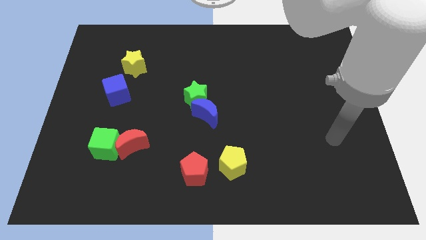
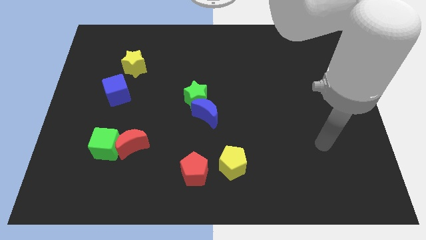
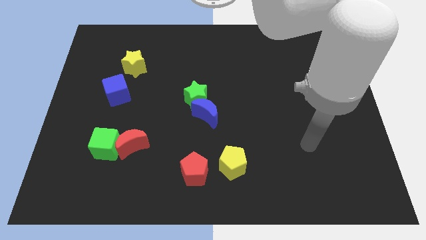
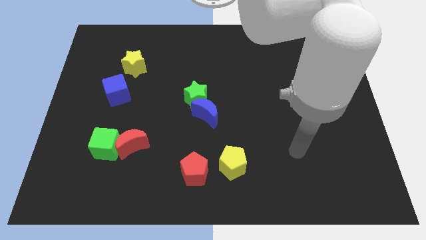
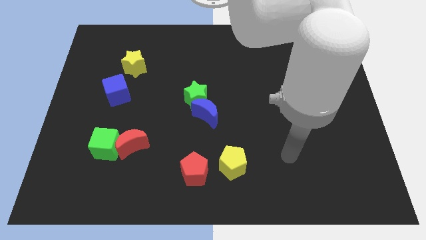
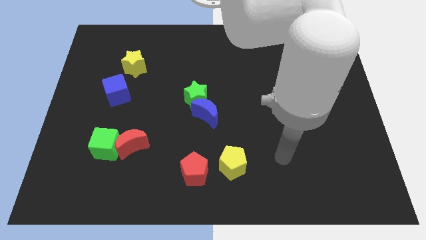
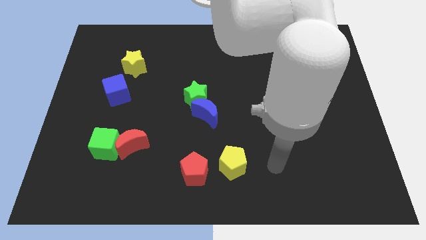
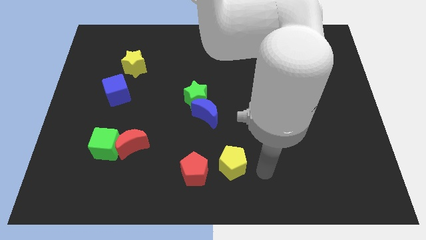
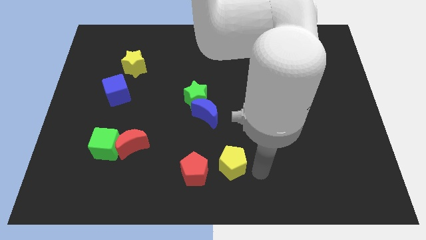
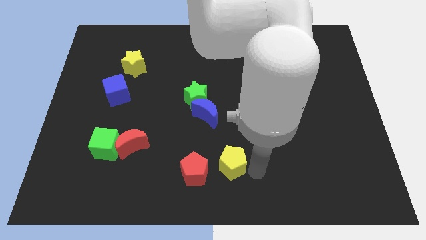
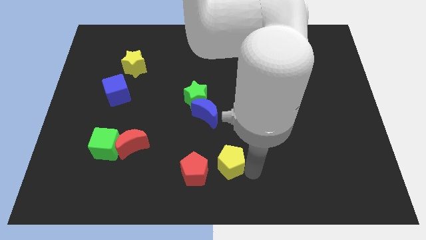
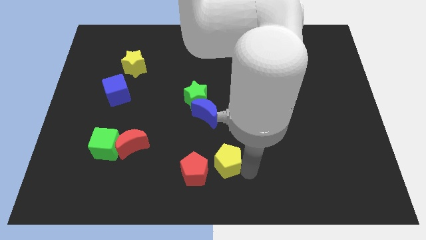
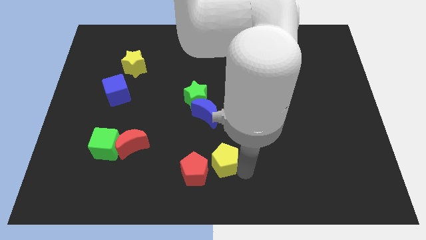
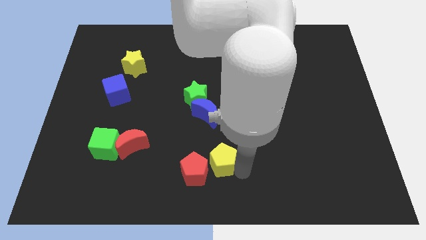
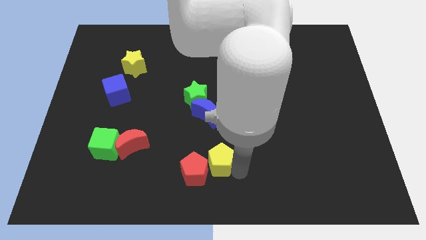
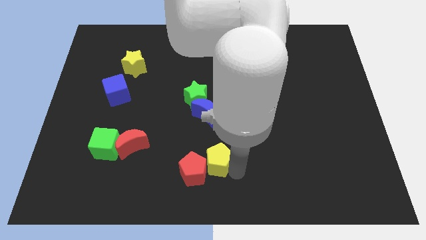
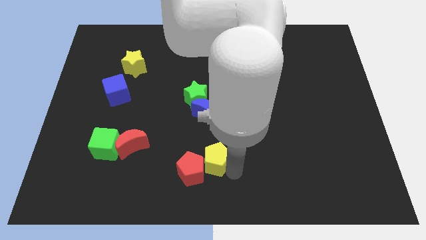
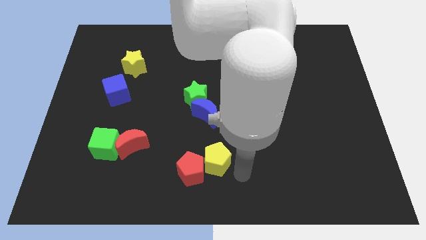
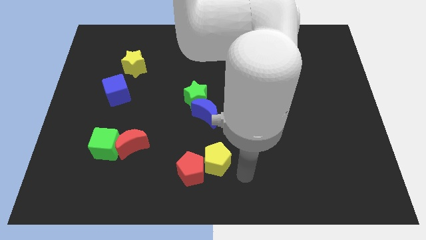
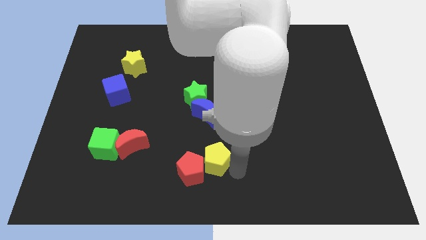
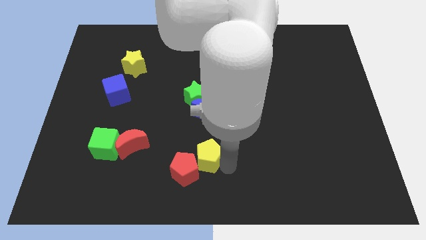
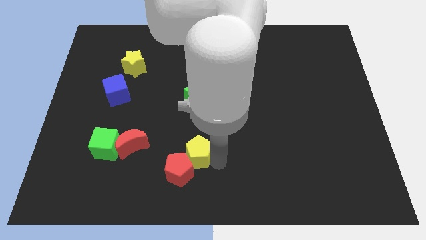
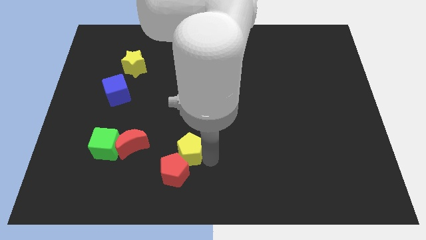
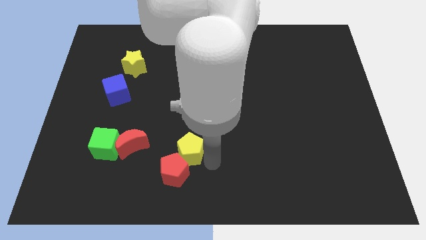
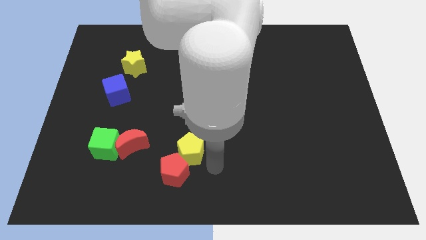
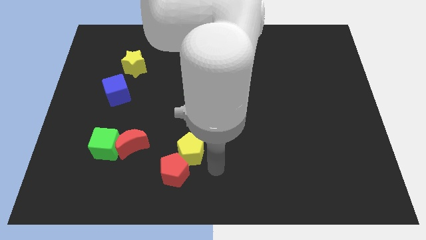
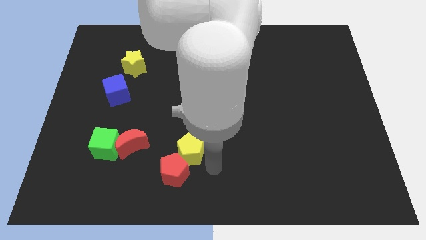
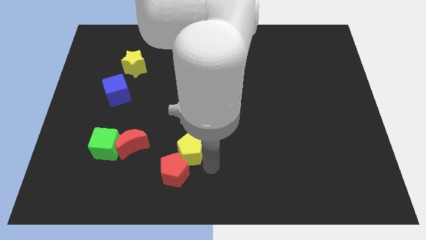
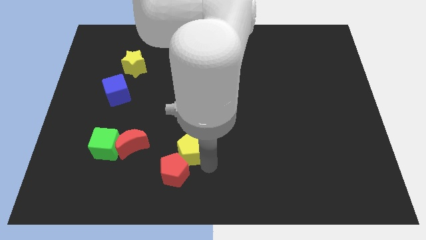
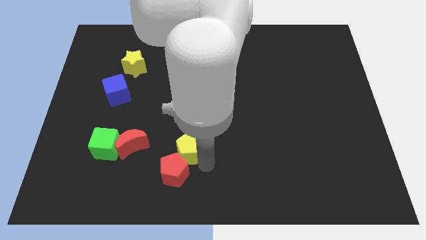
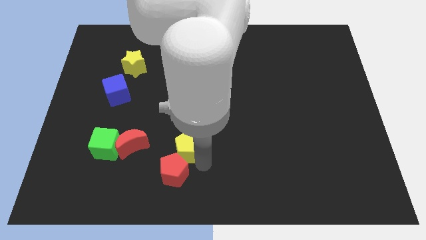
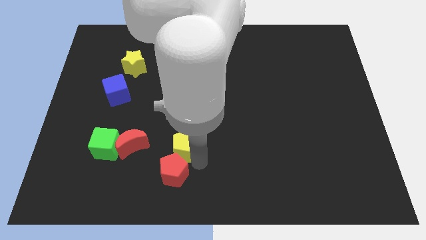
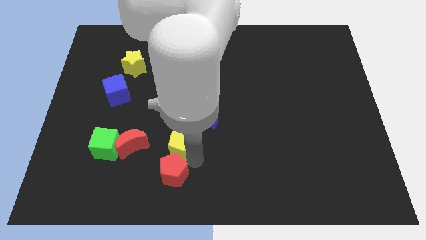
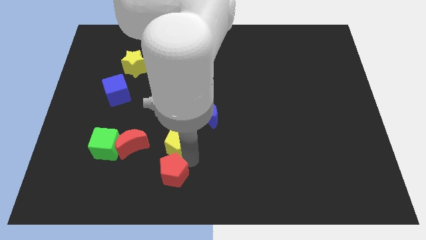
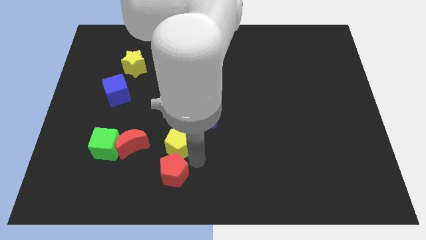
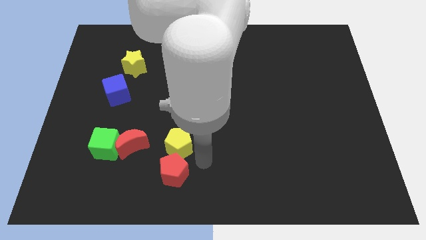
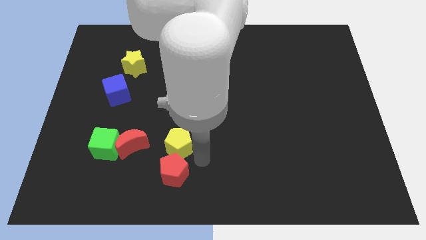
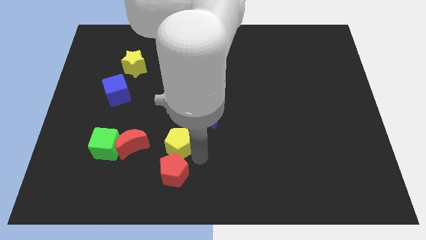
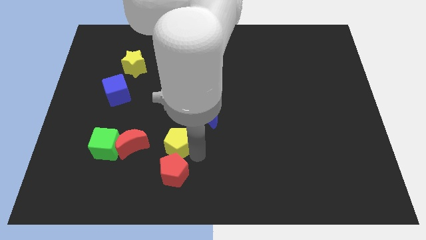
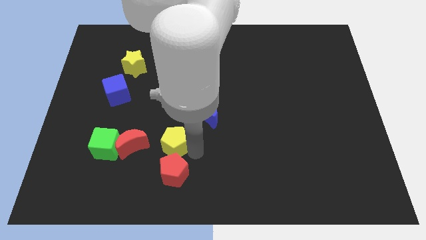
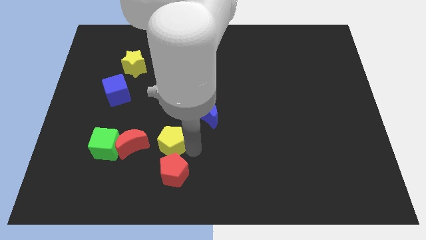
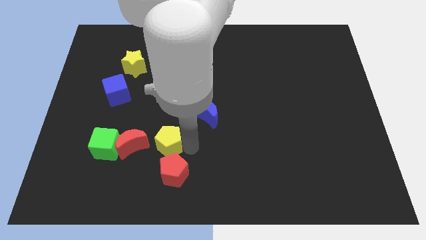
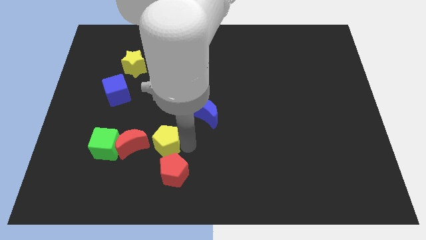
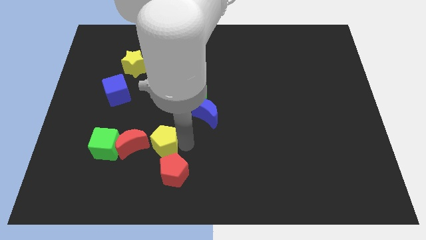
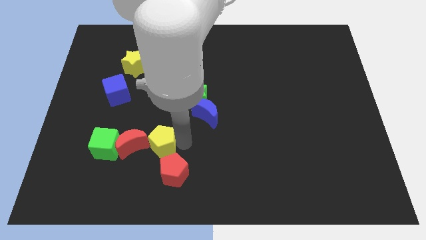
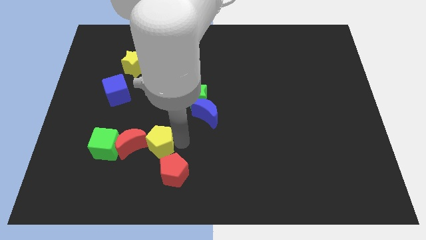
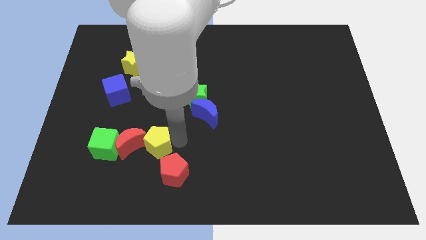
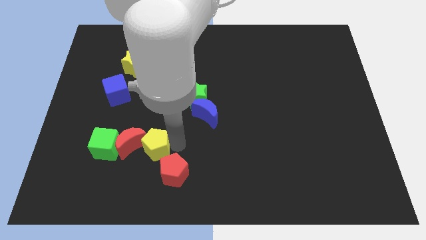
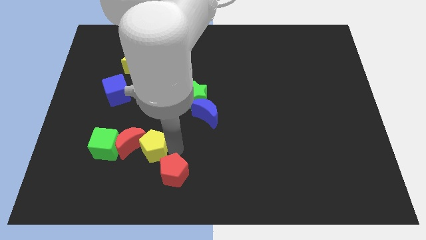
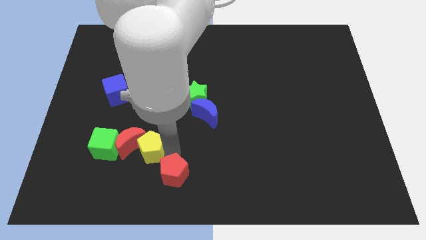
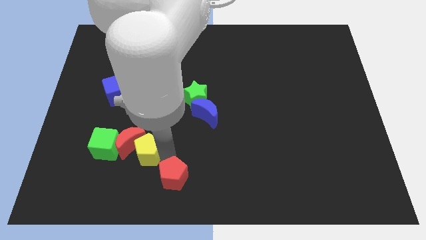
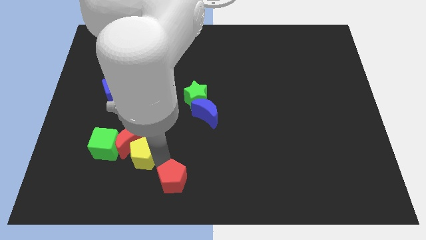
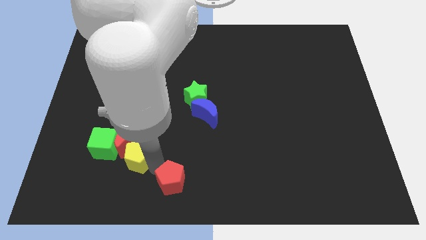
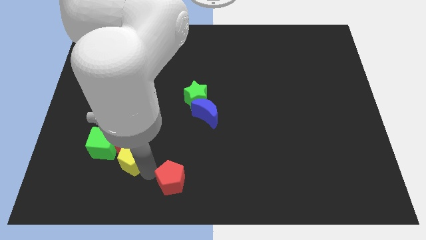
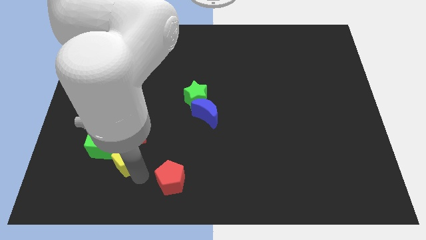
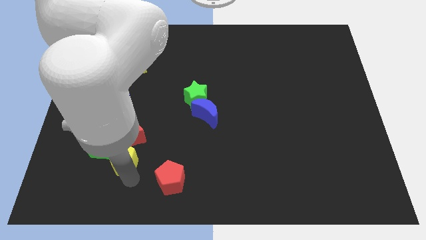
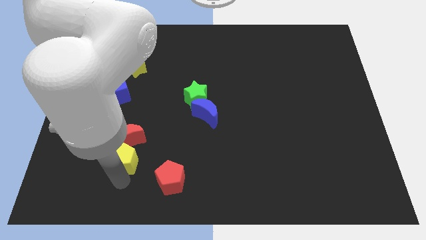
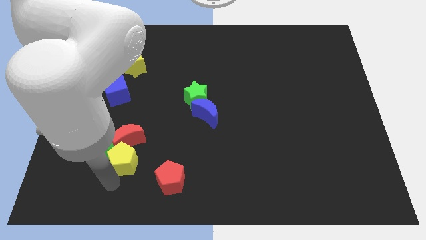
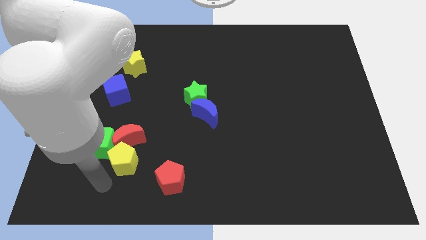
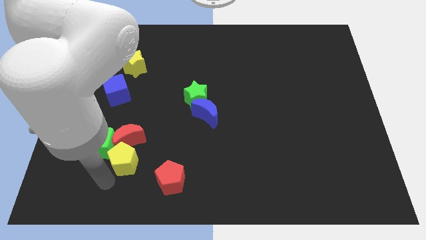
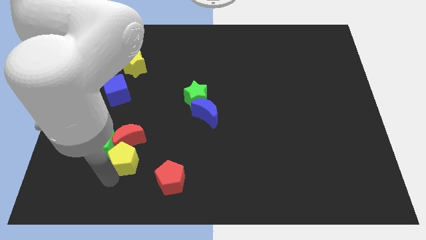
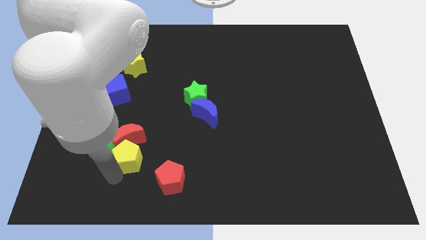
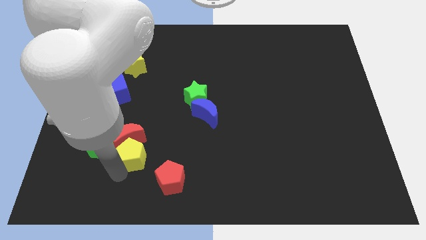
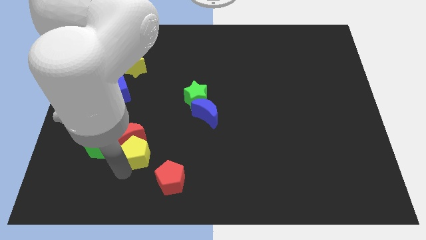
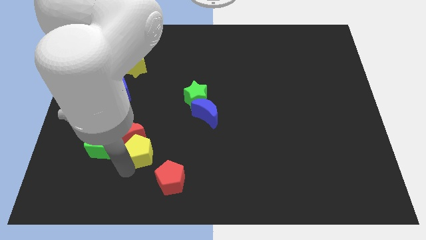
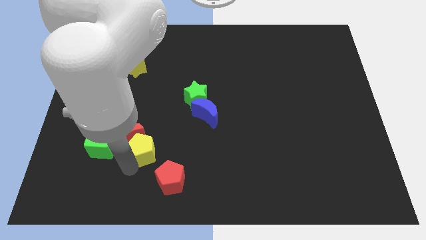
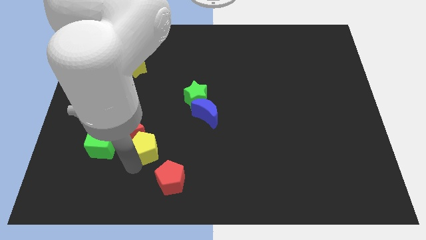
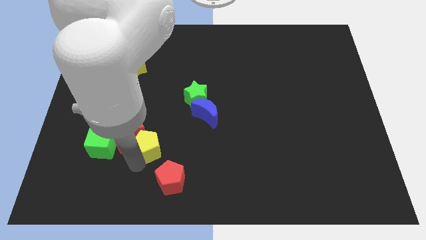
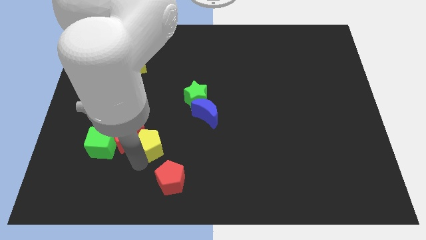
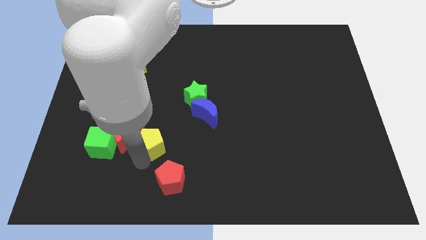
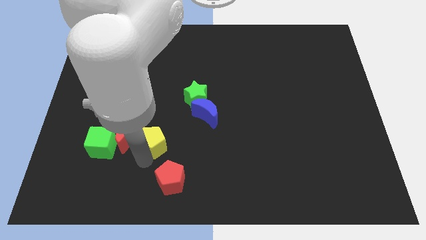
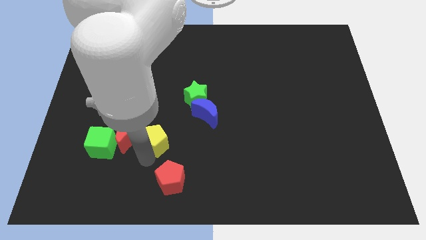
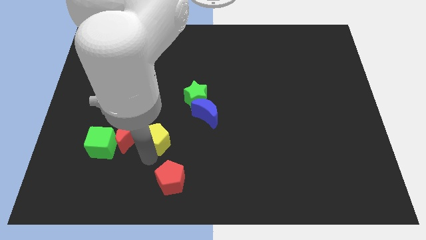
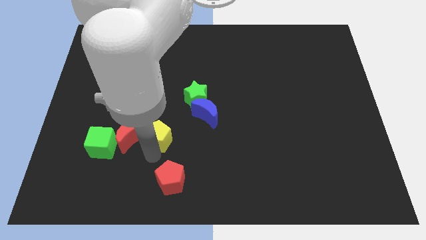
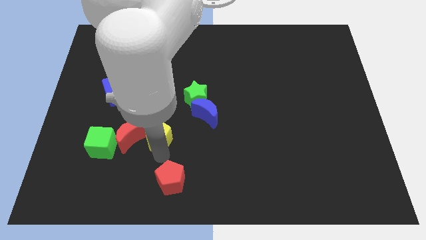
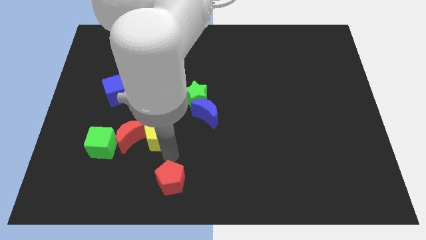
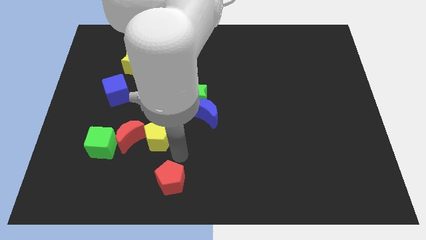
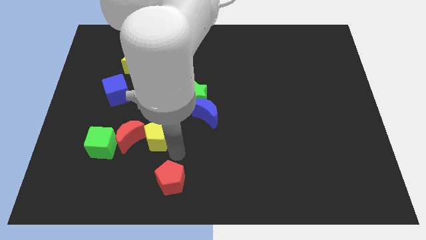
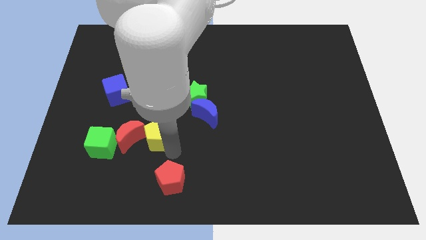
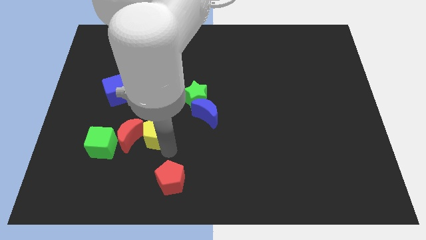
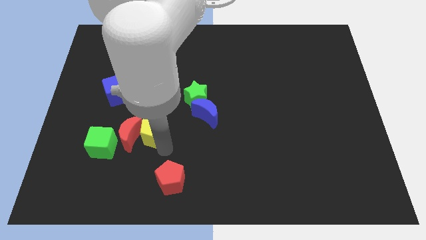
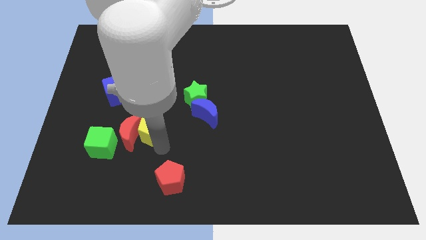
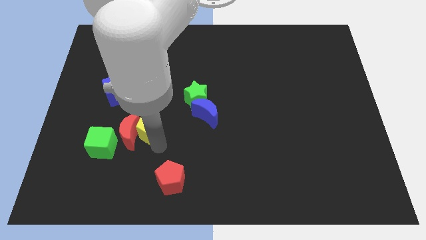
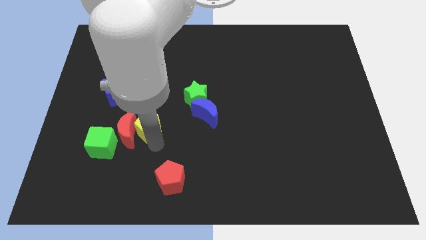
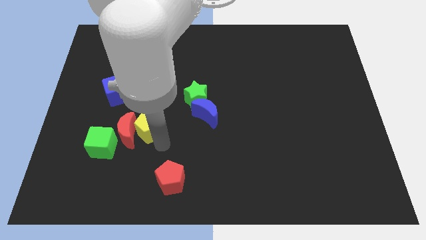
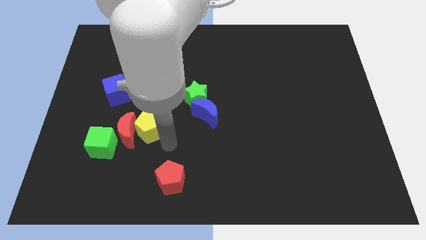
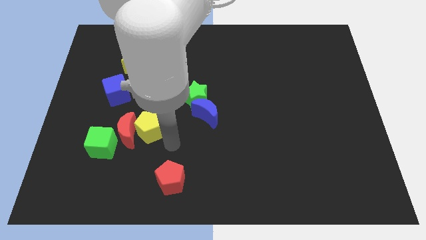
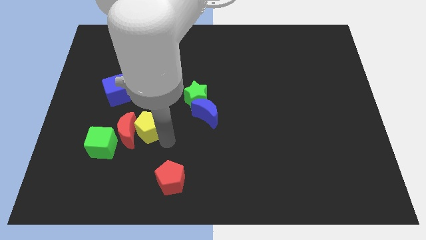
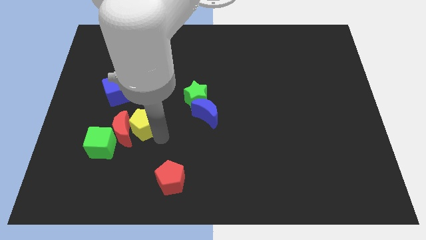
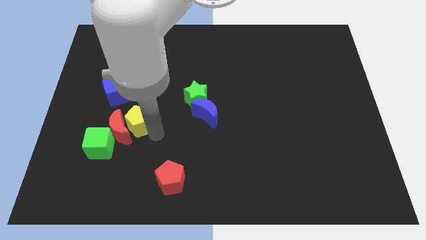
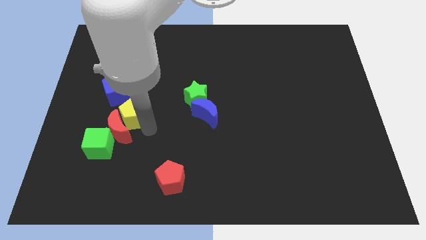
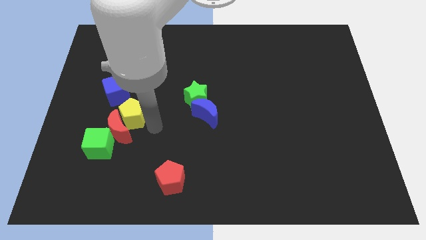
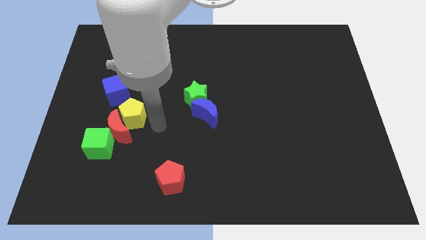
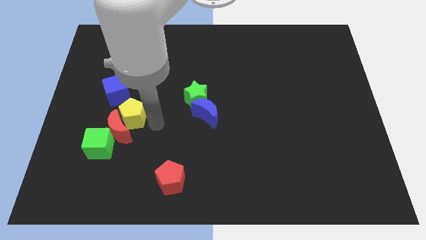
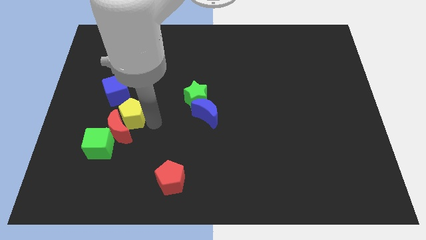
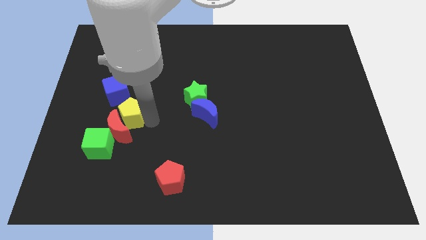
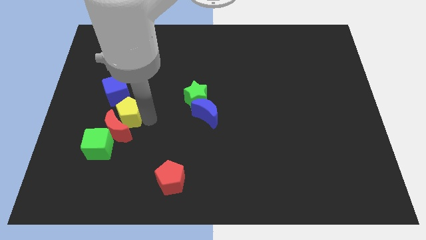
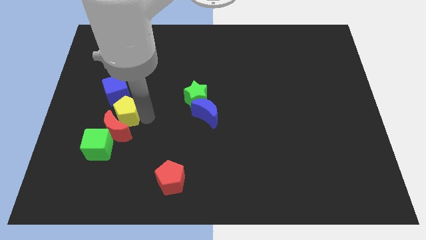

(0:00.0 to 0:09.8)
put the yellow pentagon to the top side of the green cube
